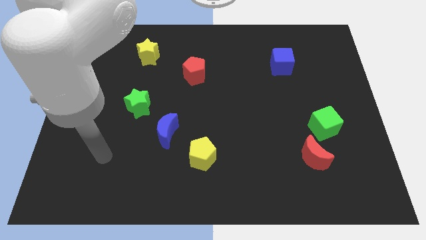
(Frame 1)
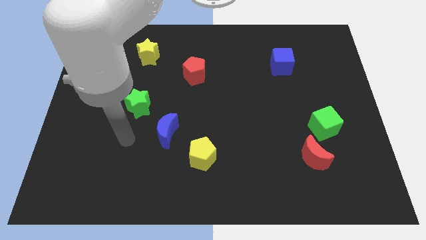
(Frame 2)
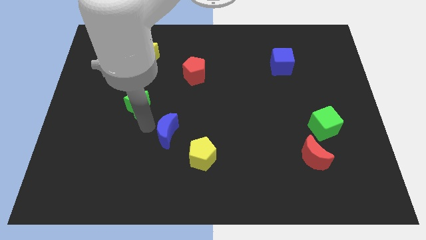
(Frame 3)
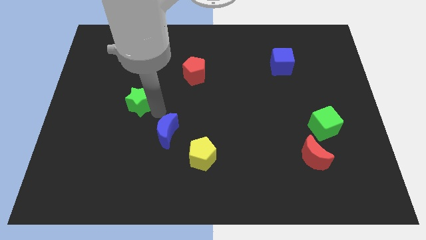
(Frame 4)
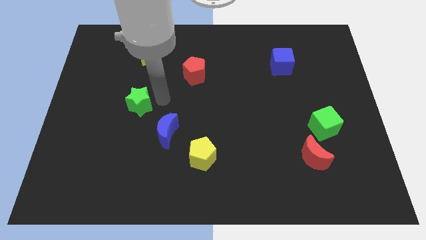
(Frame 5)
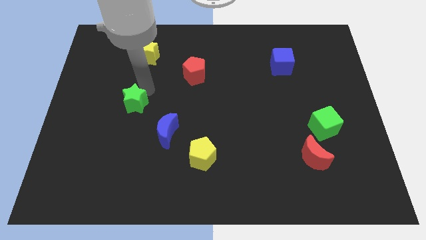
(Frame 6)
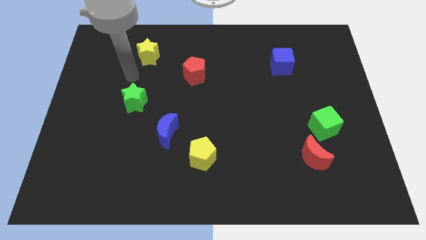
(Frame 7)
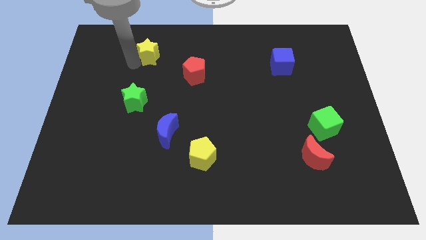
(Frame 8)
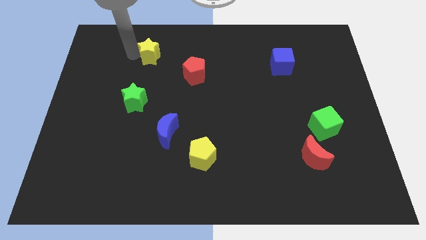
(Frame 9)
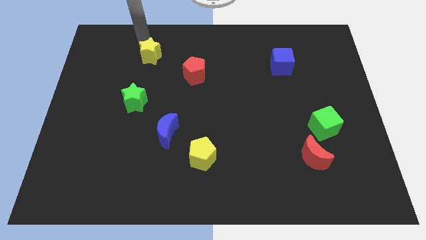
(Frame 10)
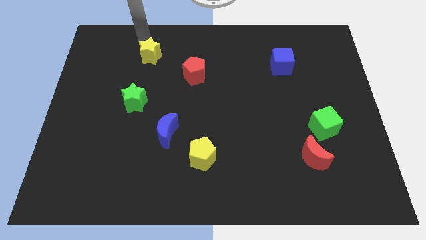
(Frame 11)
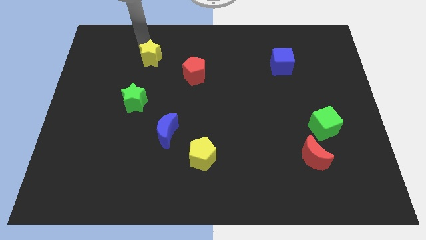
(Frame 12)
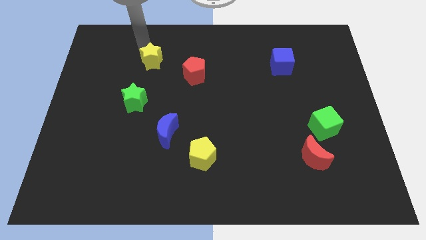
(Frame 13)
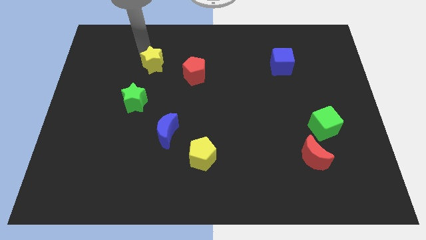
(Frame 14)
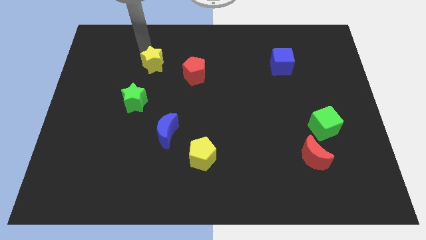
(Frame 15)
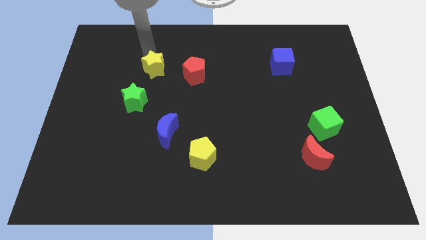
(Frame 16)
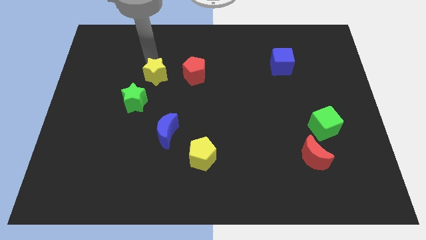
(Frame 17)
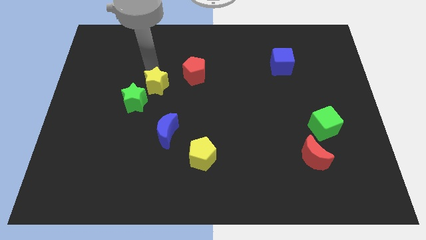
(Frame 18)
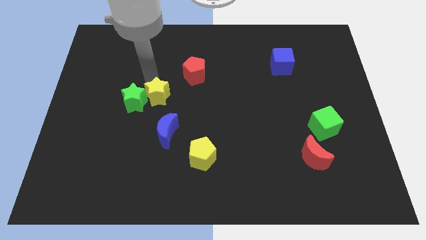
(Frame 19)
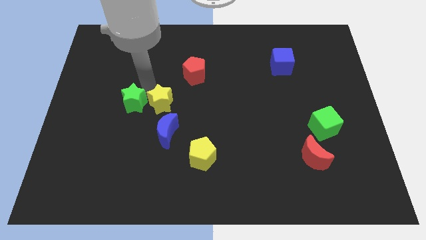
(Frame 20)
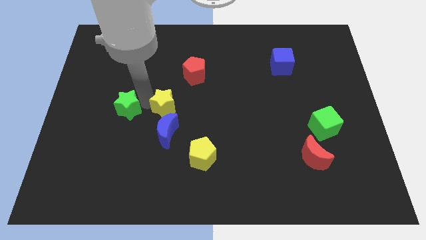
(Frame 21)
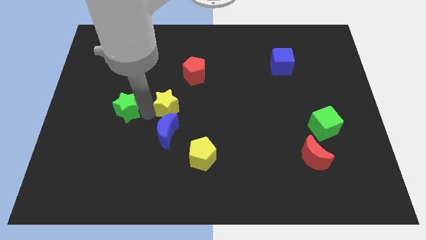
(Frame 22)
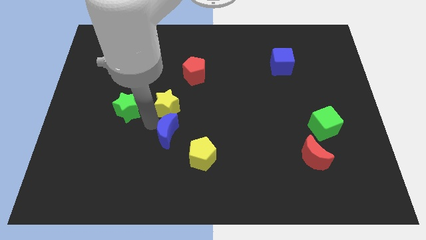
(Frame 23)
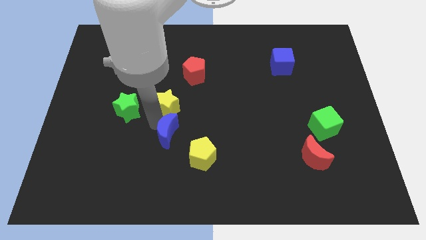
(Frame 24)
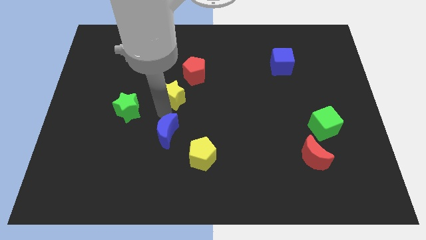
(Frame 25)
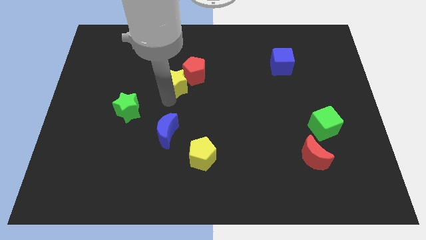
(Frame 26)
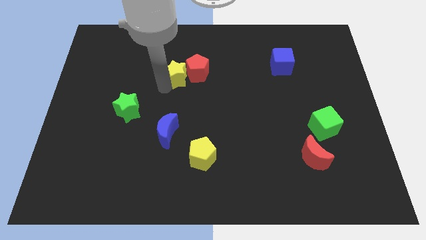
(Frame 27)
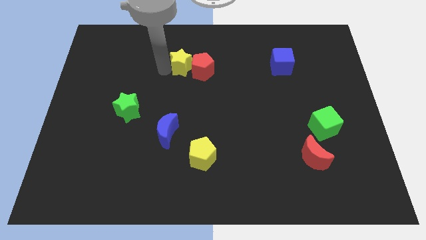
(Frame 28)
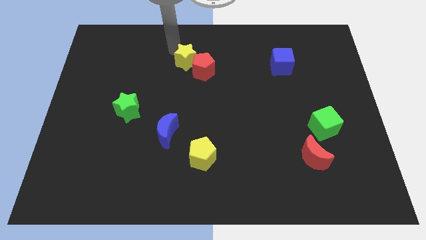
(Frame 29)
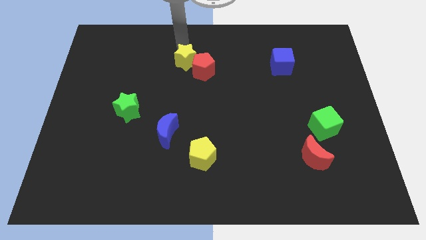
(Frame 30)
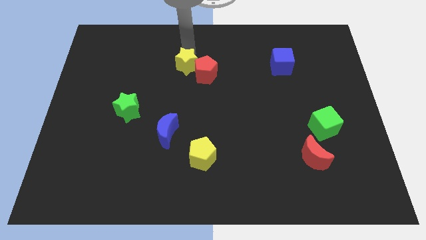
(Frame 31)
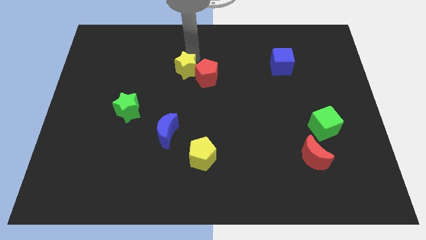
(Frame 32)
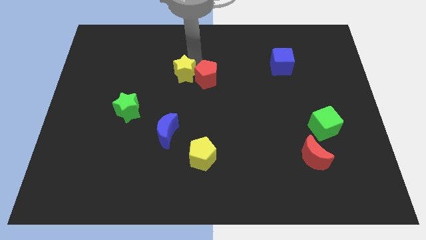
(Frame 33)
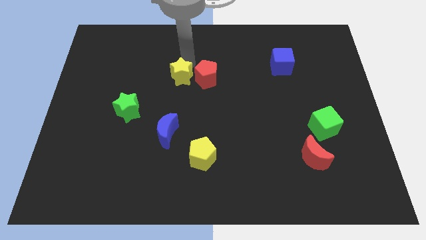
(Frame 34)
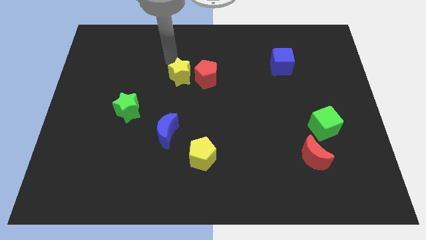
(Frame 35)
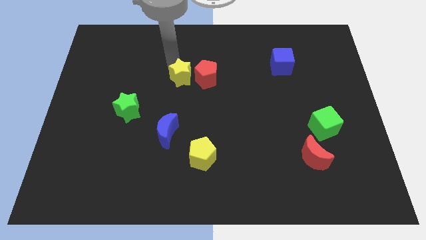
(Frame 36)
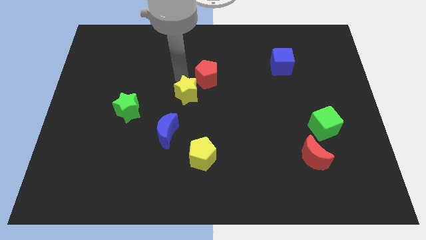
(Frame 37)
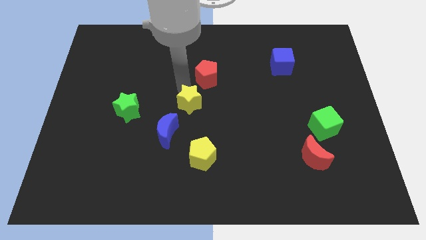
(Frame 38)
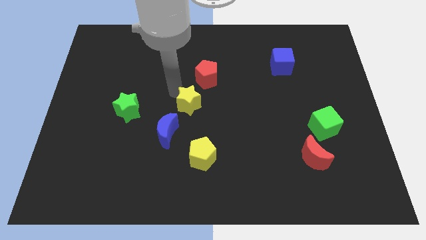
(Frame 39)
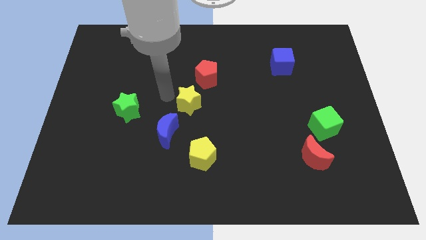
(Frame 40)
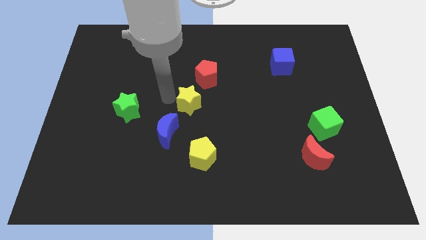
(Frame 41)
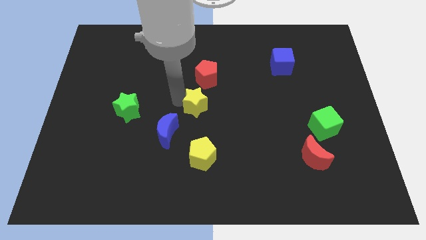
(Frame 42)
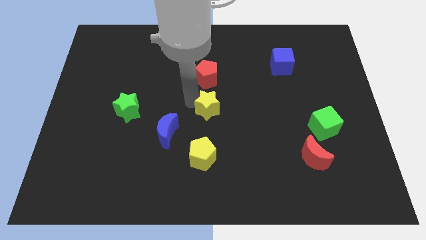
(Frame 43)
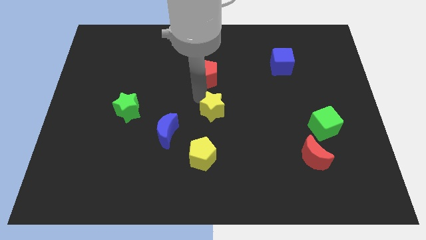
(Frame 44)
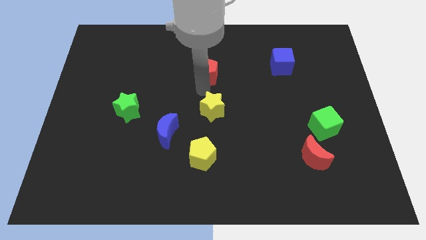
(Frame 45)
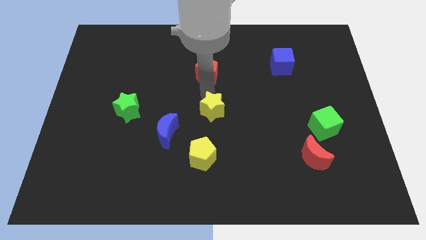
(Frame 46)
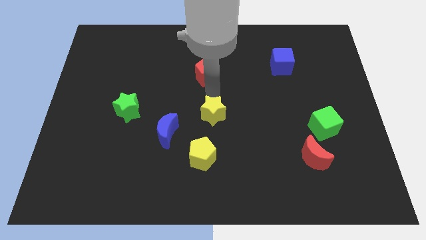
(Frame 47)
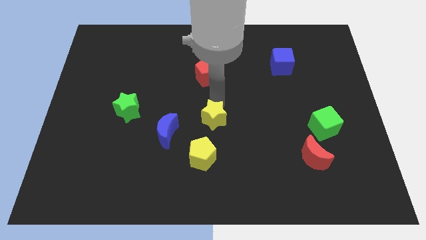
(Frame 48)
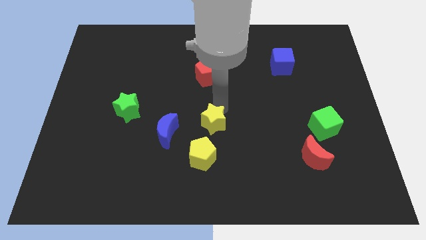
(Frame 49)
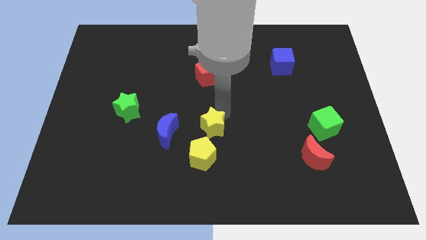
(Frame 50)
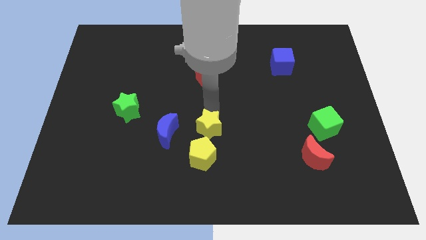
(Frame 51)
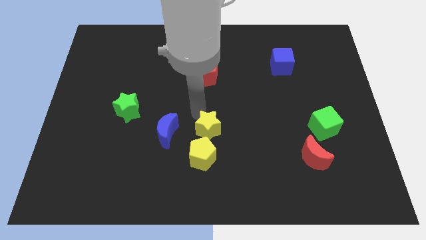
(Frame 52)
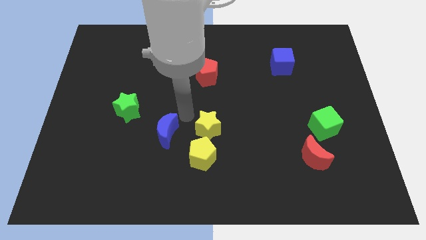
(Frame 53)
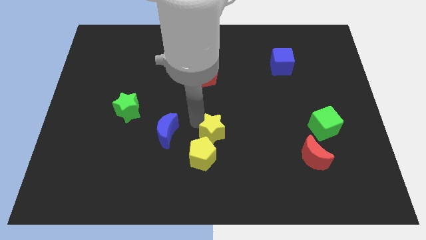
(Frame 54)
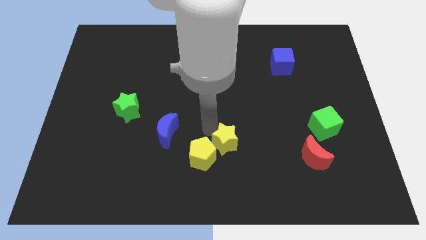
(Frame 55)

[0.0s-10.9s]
push the yellow star just right of the yellow pentagon

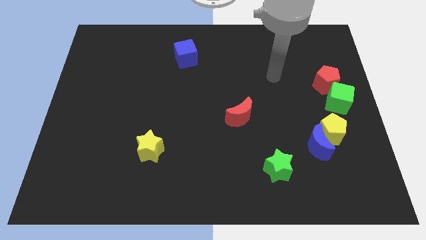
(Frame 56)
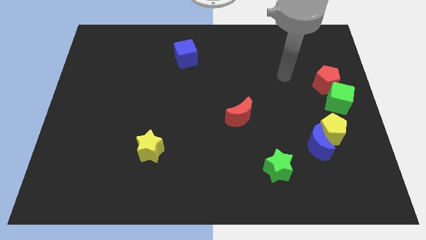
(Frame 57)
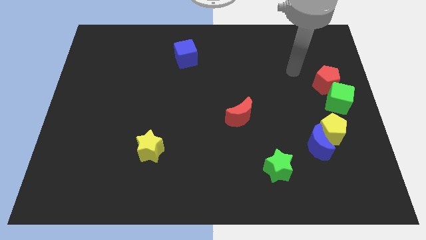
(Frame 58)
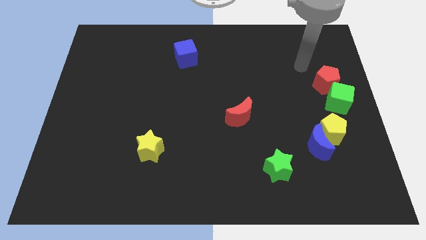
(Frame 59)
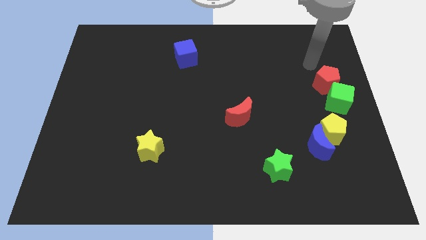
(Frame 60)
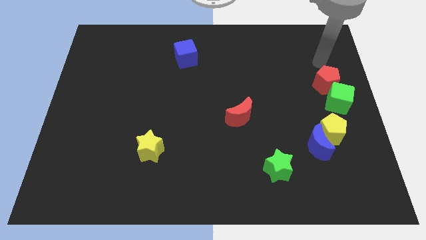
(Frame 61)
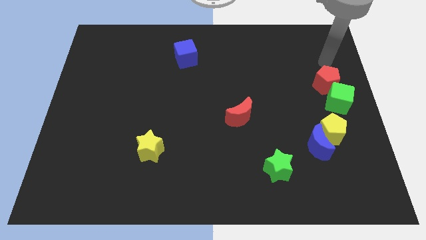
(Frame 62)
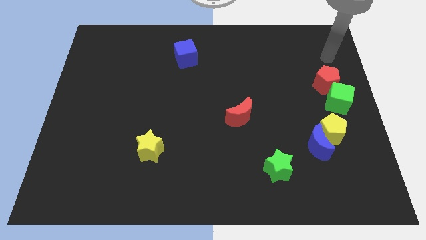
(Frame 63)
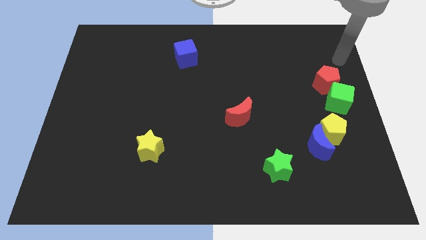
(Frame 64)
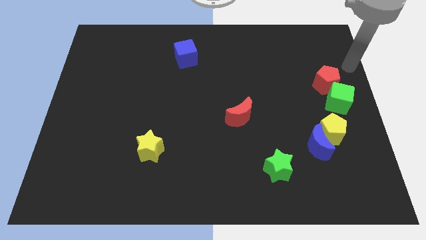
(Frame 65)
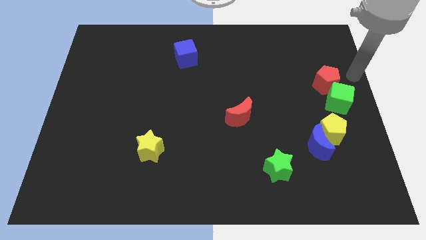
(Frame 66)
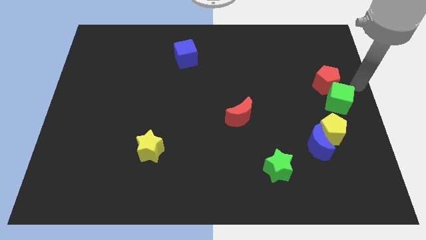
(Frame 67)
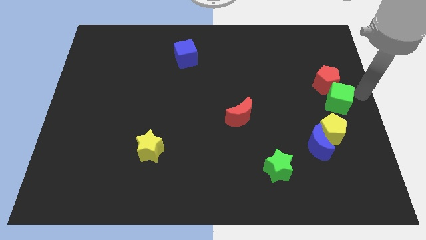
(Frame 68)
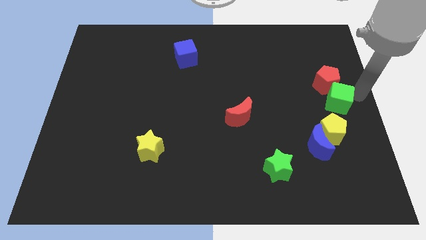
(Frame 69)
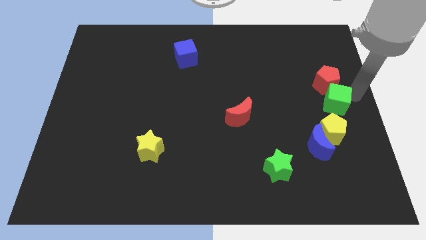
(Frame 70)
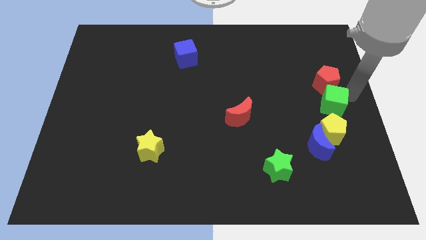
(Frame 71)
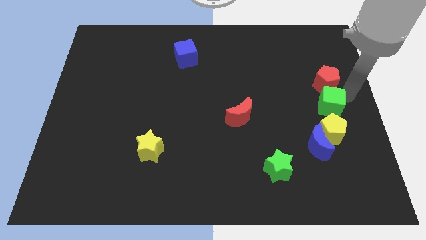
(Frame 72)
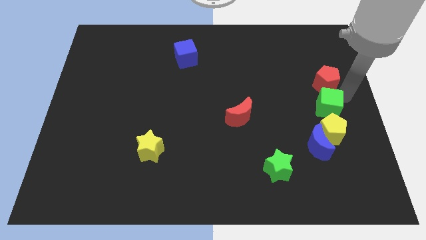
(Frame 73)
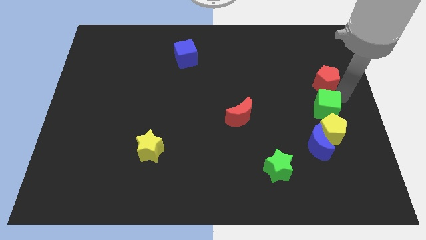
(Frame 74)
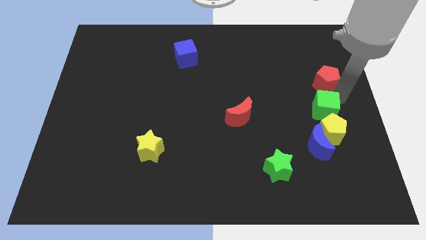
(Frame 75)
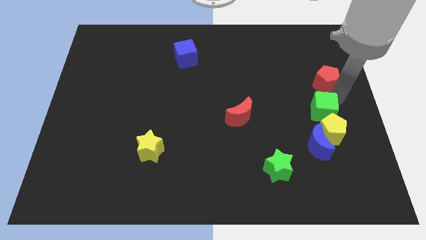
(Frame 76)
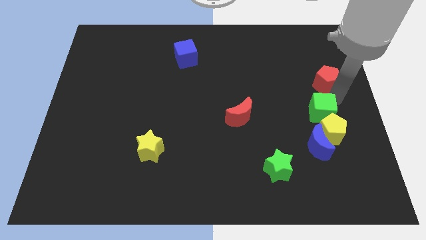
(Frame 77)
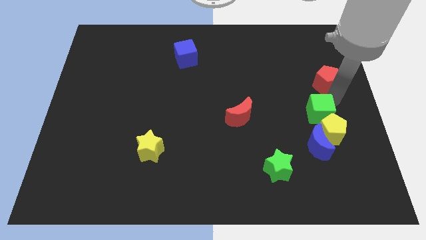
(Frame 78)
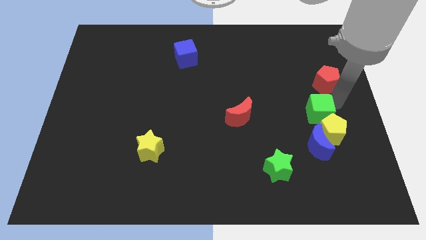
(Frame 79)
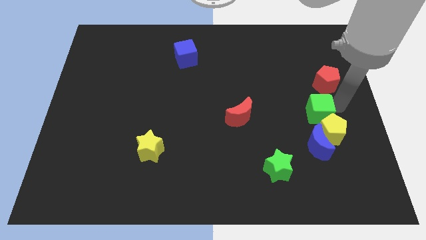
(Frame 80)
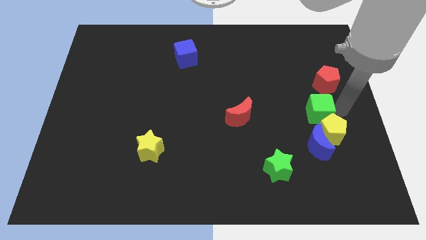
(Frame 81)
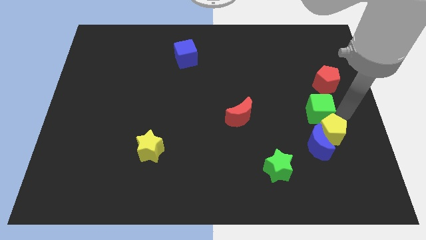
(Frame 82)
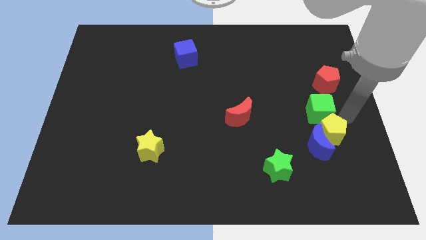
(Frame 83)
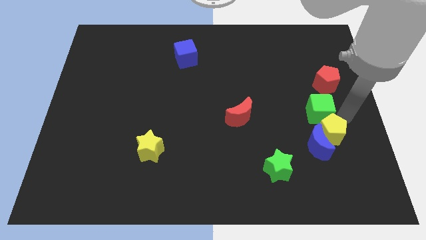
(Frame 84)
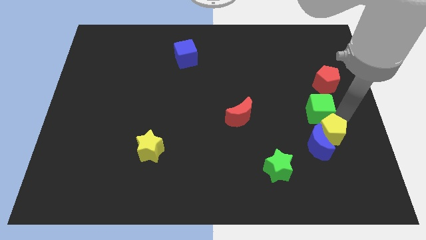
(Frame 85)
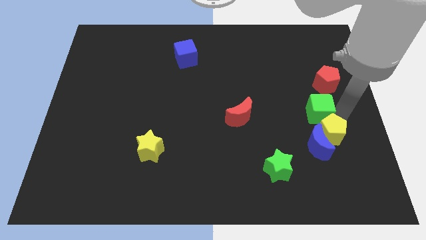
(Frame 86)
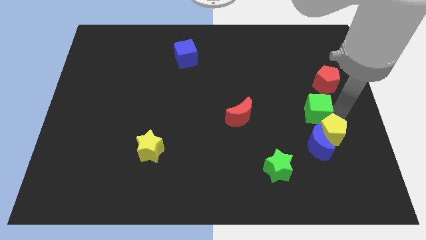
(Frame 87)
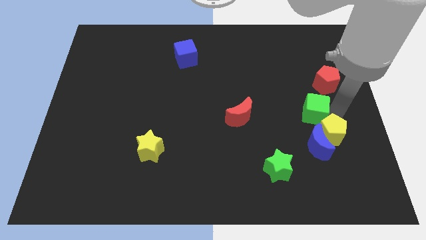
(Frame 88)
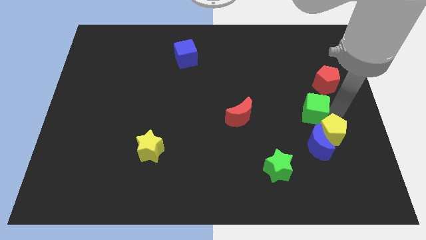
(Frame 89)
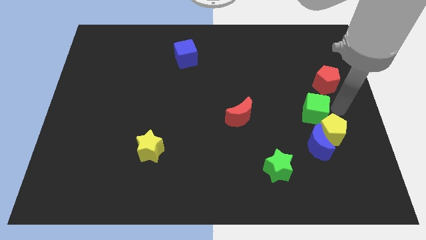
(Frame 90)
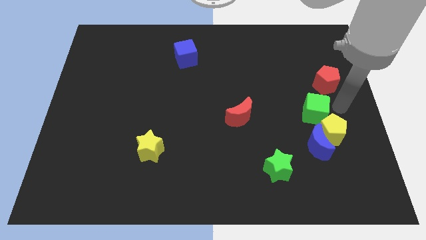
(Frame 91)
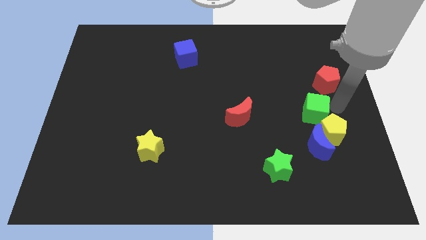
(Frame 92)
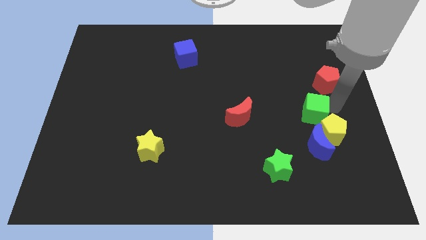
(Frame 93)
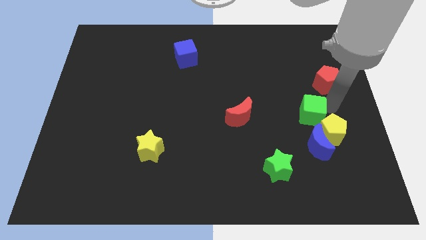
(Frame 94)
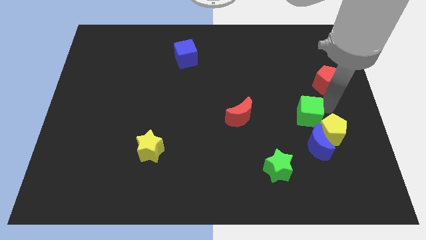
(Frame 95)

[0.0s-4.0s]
move the green cube to the right side of the red moon
